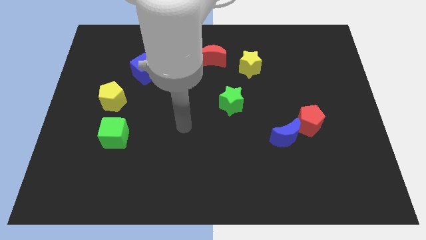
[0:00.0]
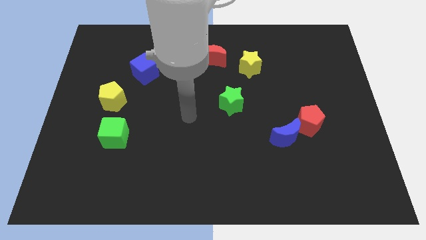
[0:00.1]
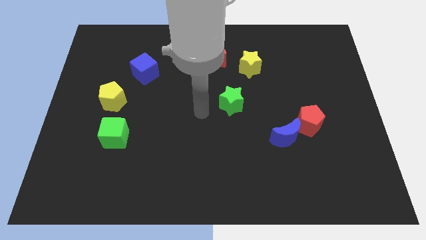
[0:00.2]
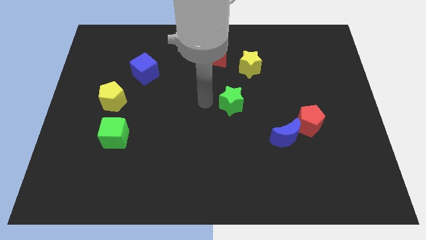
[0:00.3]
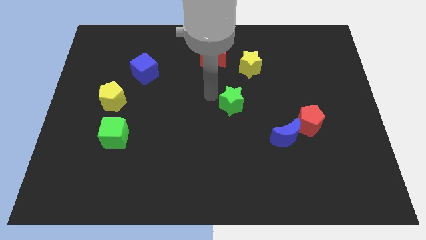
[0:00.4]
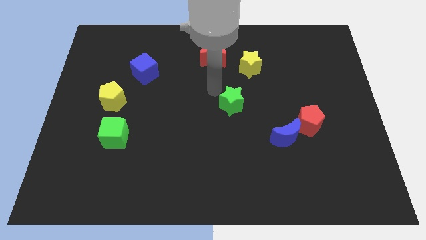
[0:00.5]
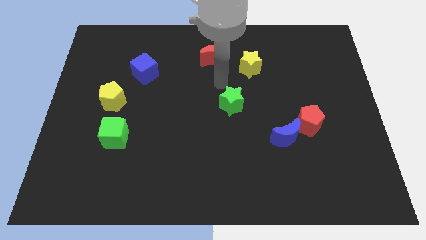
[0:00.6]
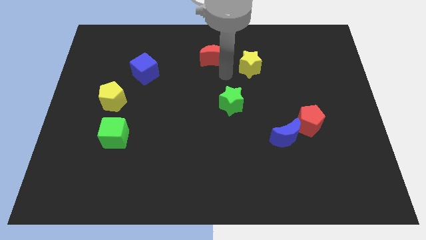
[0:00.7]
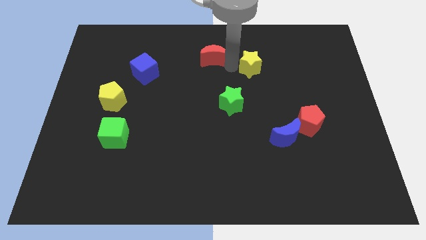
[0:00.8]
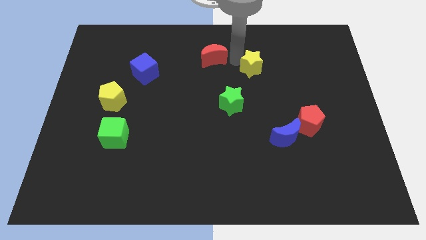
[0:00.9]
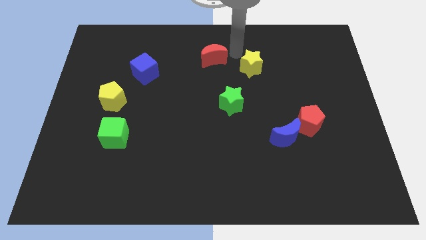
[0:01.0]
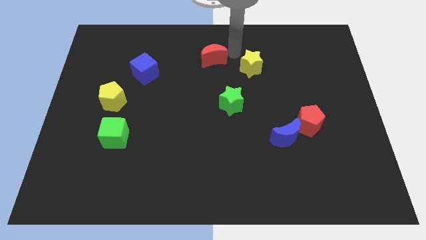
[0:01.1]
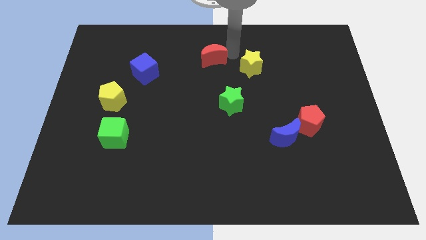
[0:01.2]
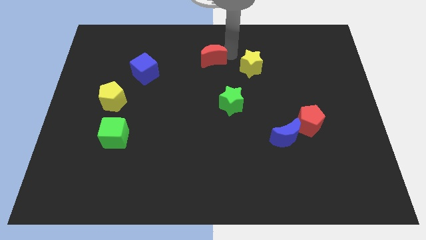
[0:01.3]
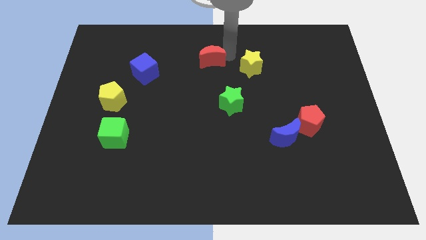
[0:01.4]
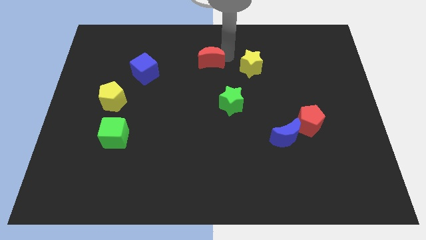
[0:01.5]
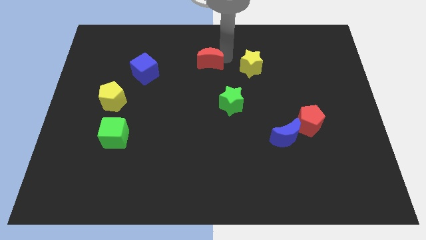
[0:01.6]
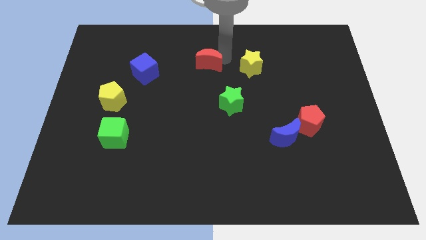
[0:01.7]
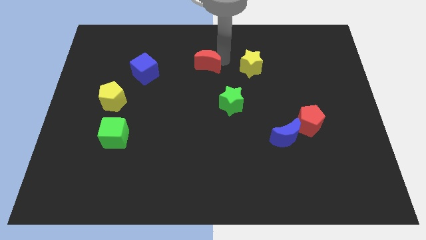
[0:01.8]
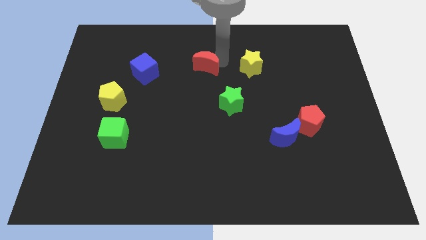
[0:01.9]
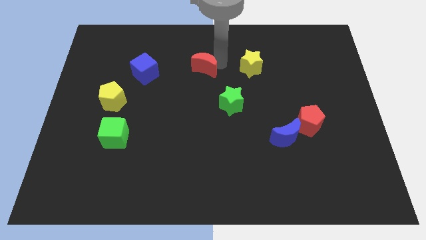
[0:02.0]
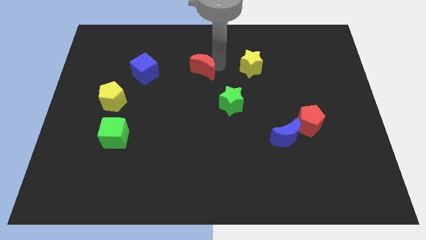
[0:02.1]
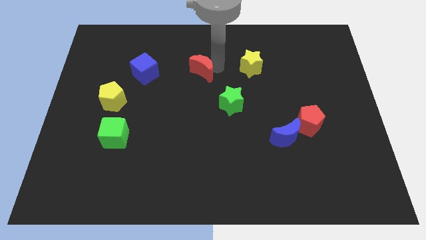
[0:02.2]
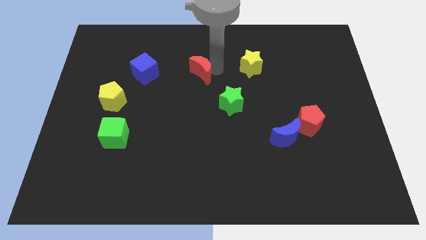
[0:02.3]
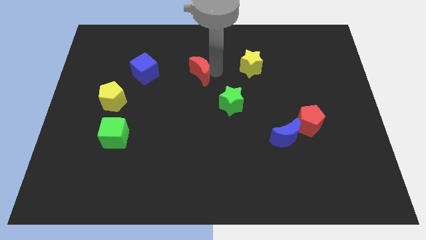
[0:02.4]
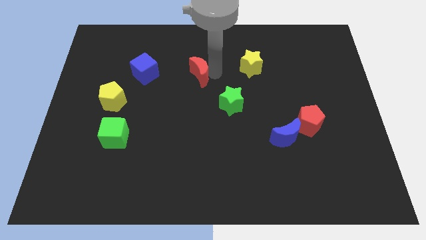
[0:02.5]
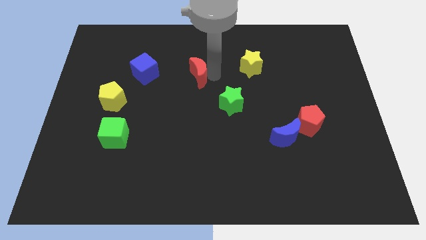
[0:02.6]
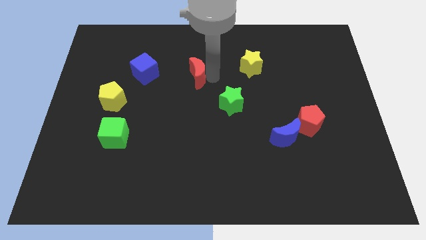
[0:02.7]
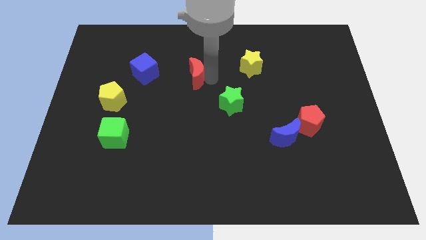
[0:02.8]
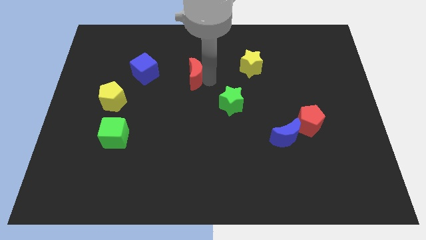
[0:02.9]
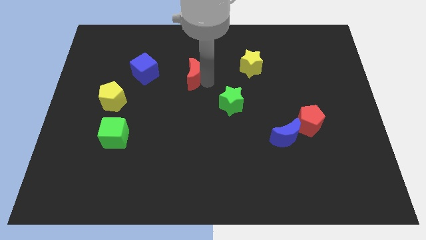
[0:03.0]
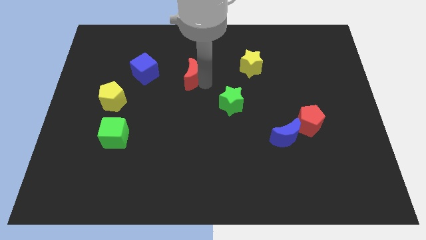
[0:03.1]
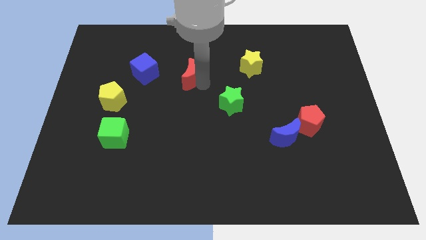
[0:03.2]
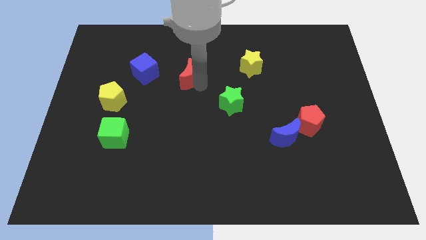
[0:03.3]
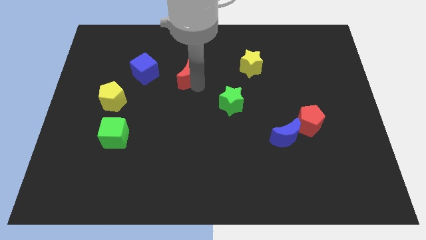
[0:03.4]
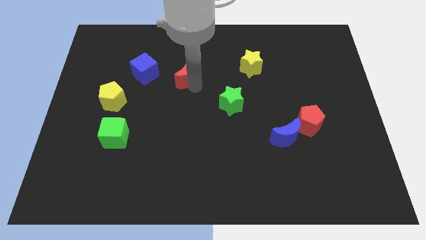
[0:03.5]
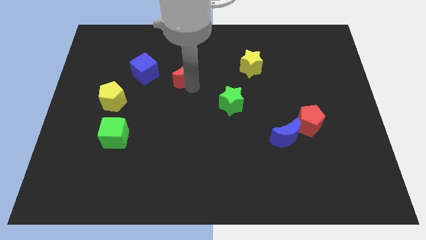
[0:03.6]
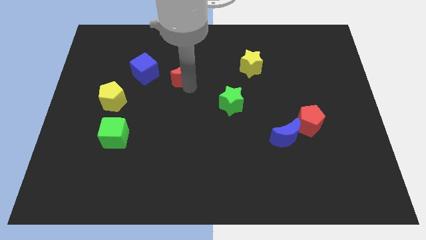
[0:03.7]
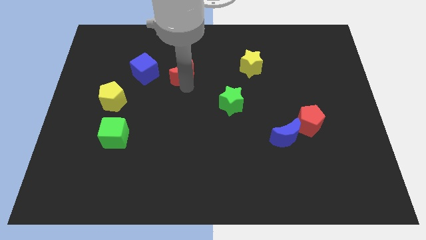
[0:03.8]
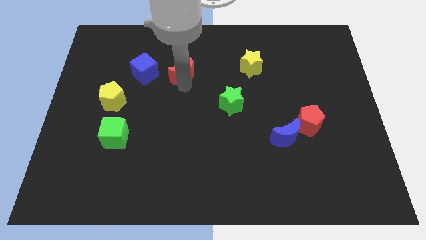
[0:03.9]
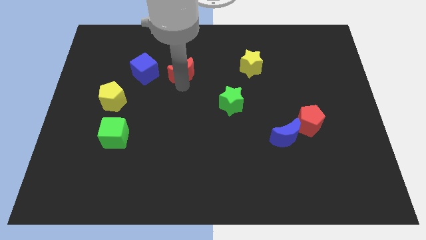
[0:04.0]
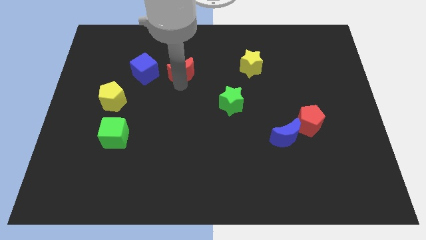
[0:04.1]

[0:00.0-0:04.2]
slide the red moon somewhat left

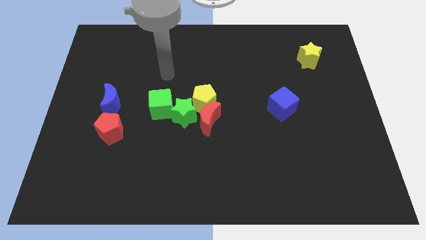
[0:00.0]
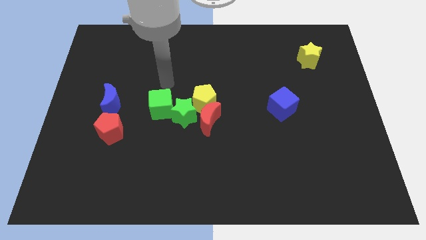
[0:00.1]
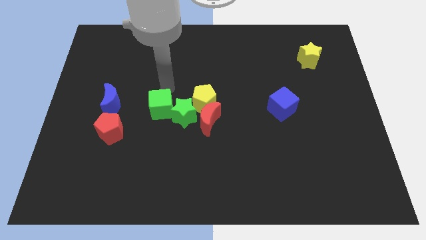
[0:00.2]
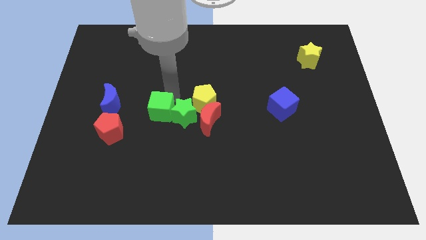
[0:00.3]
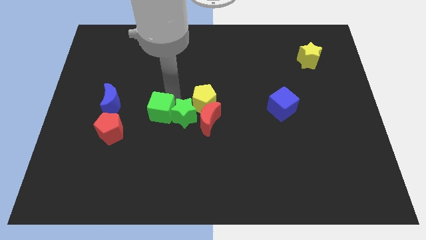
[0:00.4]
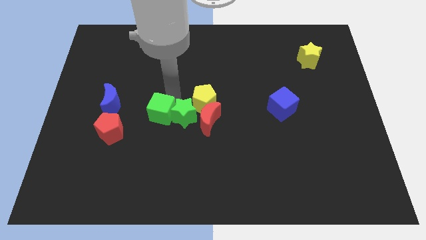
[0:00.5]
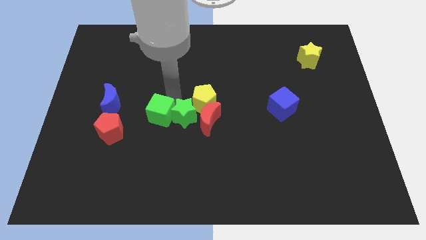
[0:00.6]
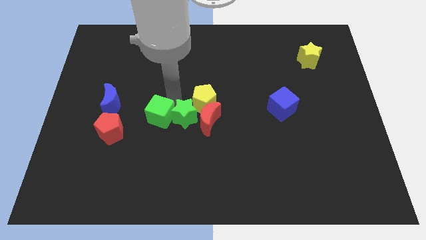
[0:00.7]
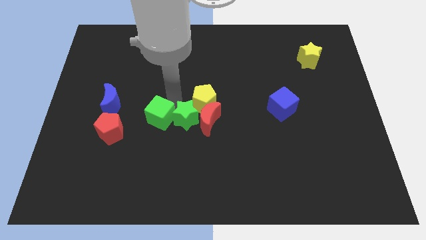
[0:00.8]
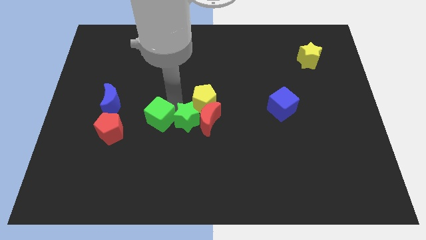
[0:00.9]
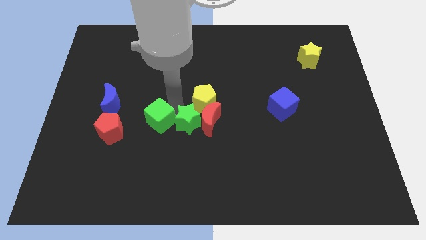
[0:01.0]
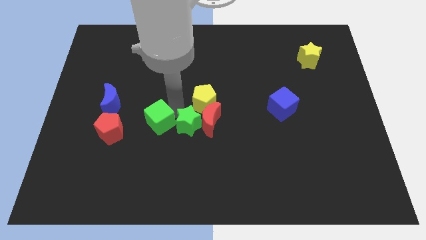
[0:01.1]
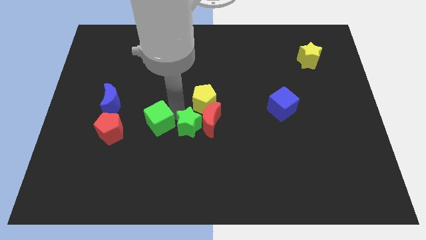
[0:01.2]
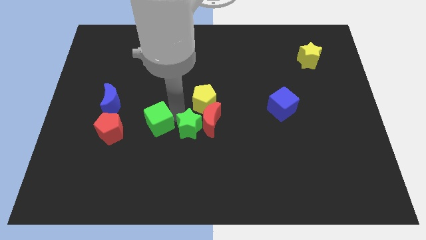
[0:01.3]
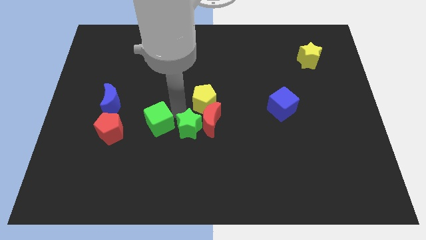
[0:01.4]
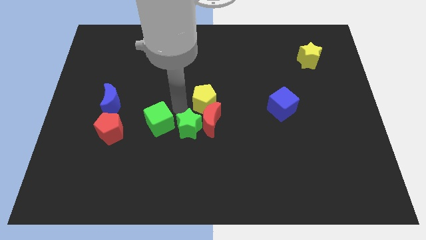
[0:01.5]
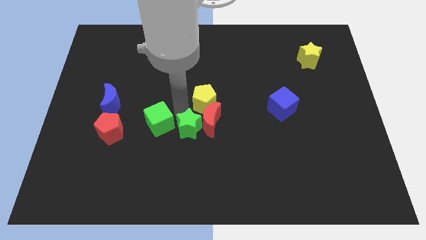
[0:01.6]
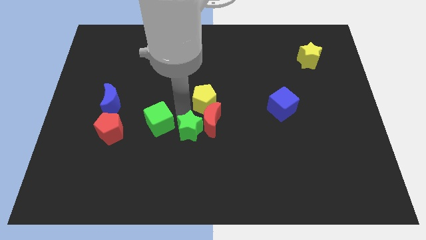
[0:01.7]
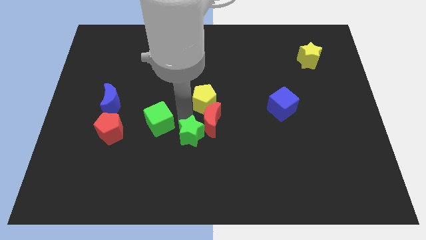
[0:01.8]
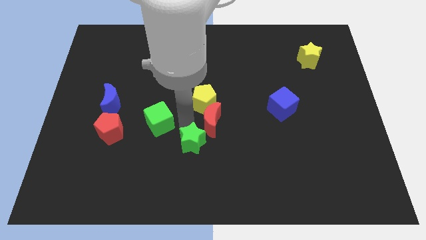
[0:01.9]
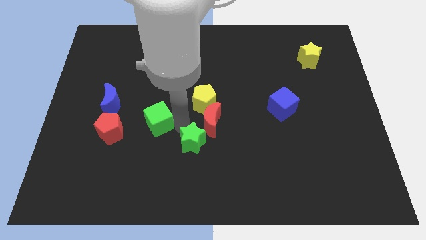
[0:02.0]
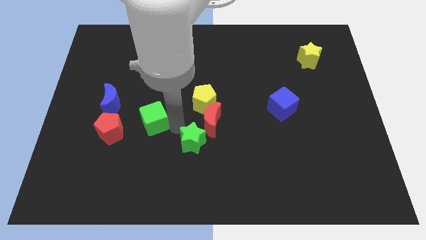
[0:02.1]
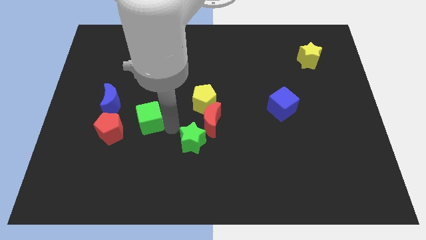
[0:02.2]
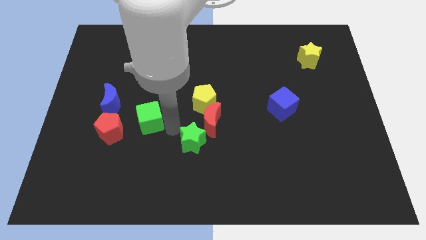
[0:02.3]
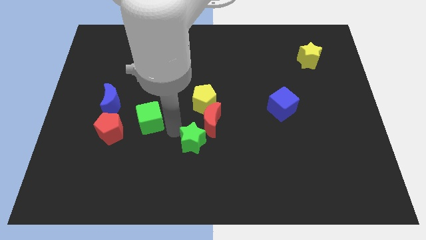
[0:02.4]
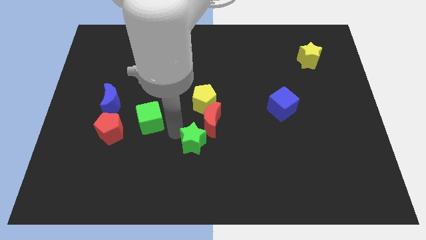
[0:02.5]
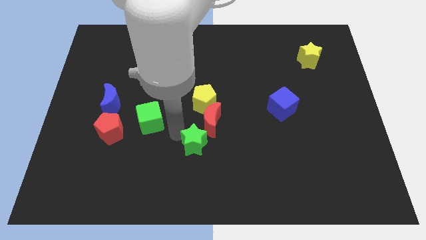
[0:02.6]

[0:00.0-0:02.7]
slightly slide the green star down and to the right

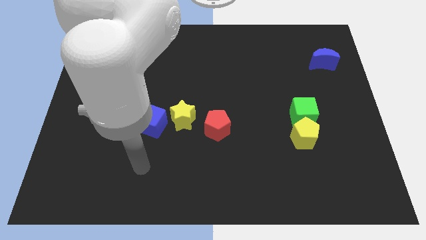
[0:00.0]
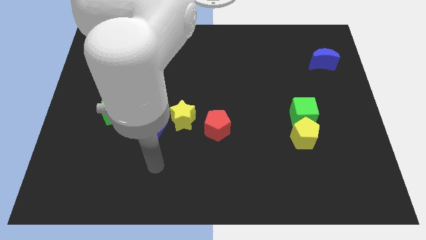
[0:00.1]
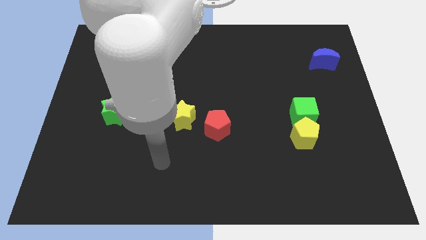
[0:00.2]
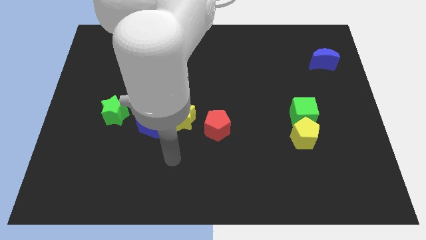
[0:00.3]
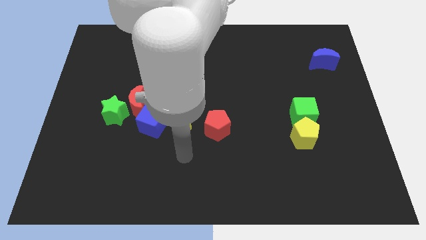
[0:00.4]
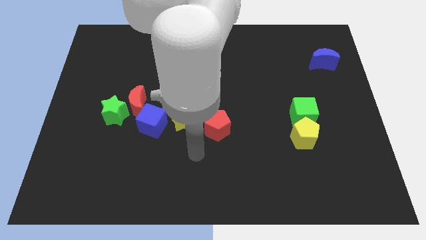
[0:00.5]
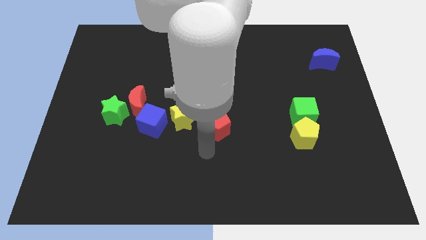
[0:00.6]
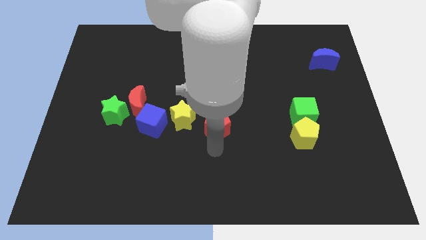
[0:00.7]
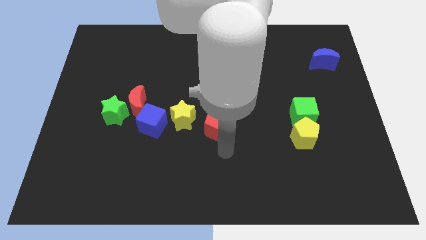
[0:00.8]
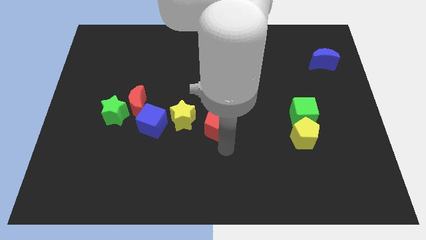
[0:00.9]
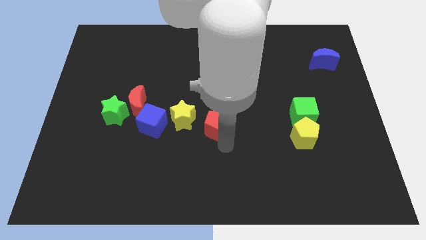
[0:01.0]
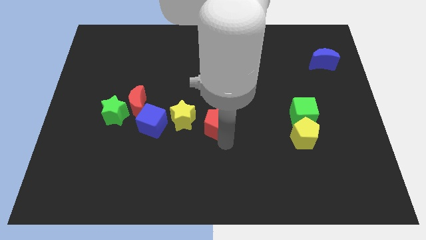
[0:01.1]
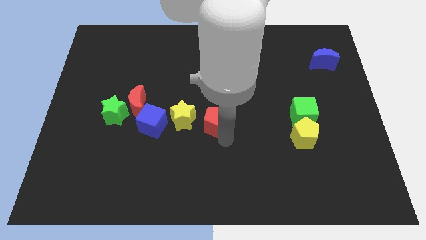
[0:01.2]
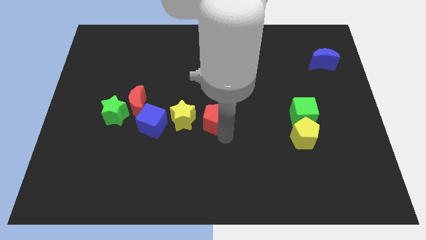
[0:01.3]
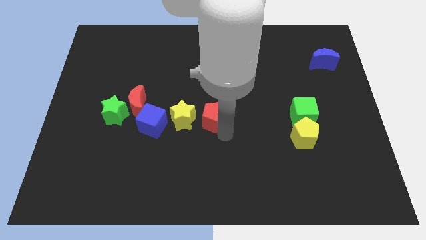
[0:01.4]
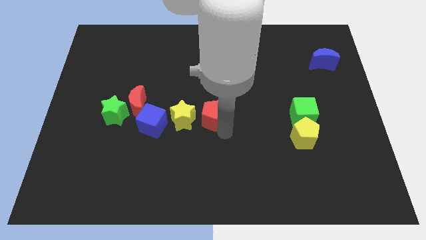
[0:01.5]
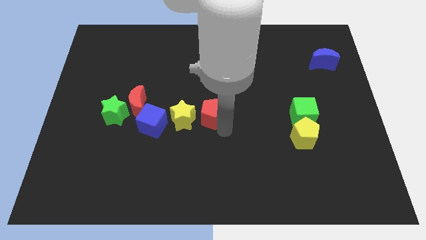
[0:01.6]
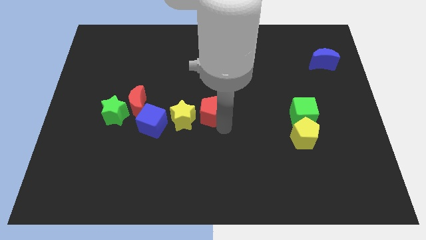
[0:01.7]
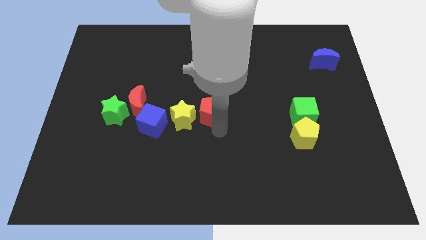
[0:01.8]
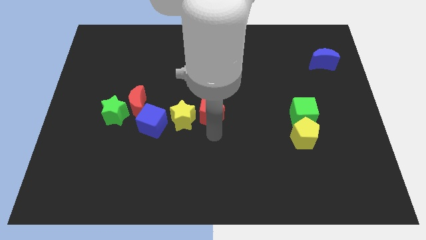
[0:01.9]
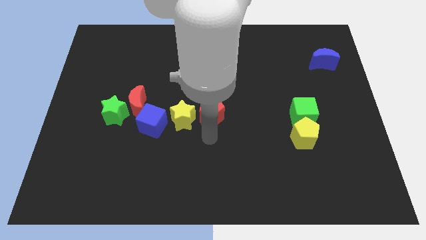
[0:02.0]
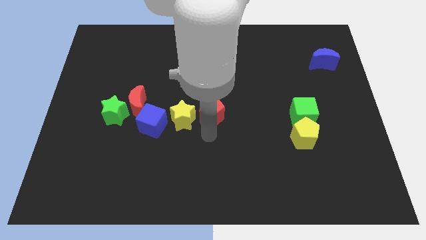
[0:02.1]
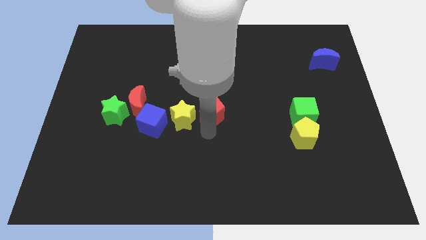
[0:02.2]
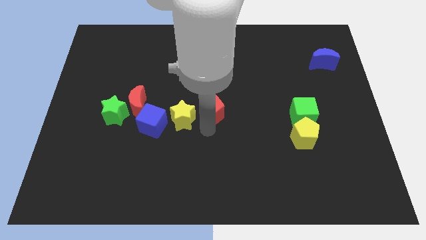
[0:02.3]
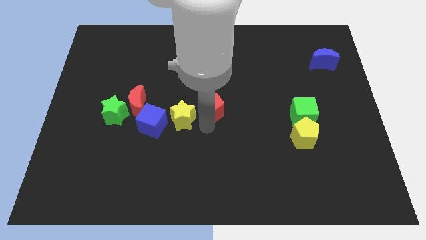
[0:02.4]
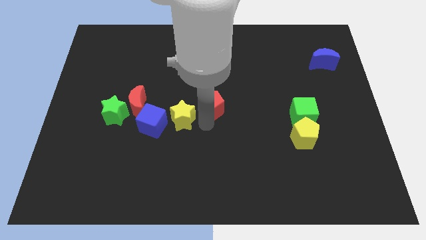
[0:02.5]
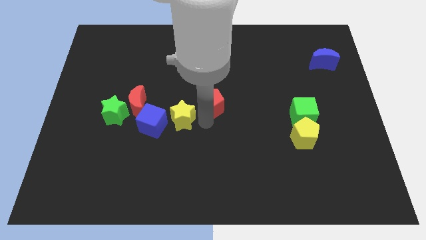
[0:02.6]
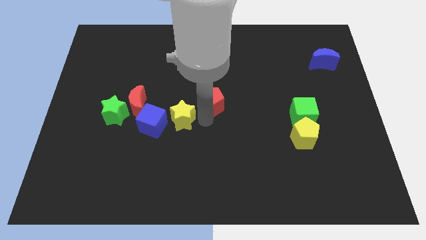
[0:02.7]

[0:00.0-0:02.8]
slightly move the red pentagon up
